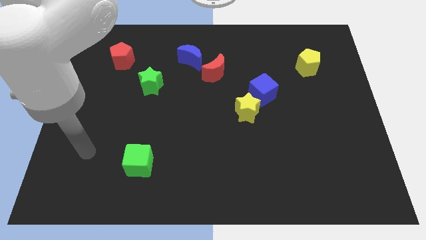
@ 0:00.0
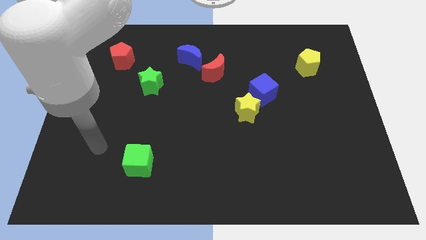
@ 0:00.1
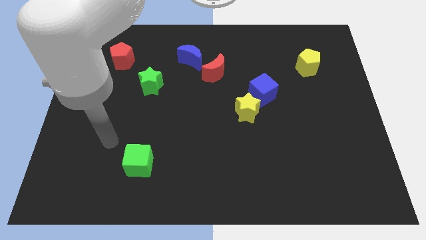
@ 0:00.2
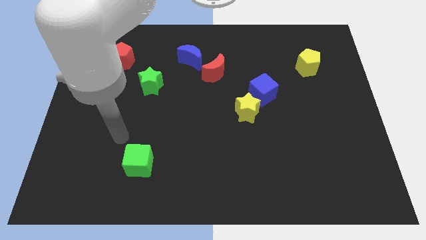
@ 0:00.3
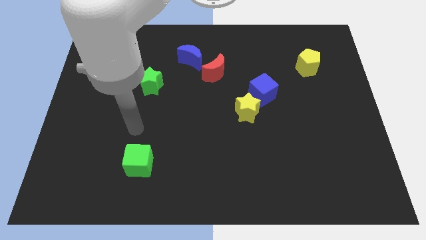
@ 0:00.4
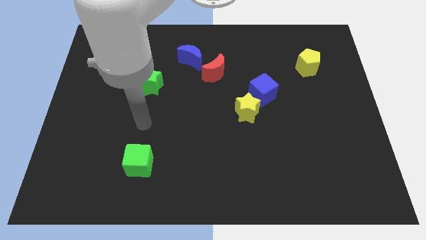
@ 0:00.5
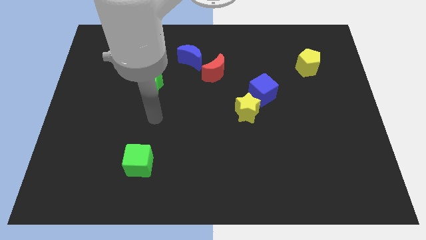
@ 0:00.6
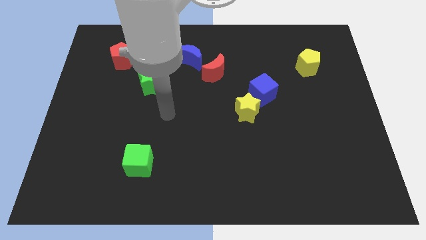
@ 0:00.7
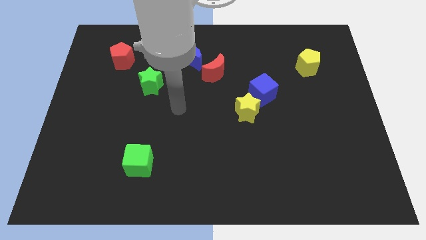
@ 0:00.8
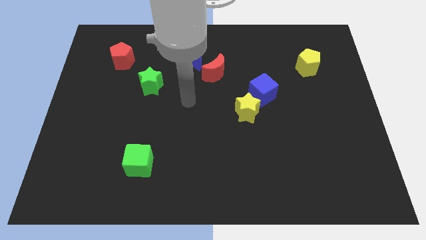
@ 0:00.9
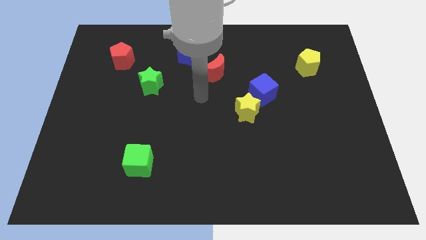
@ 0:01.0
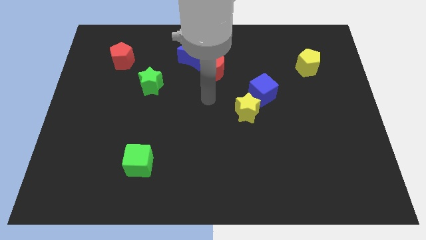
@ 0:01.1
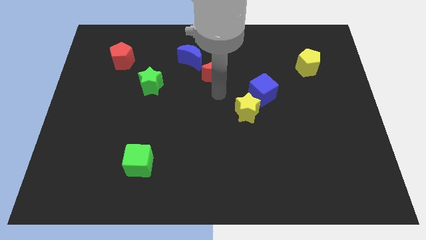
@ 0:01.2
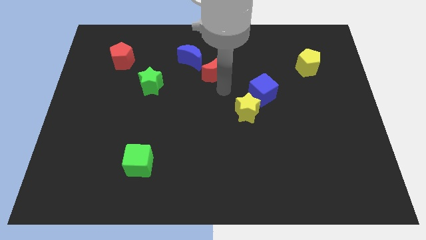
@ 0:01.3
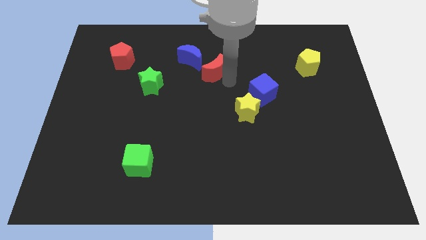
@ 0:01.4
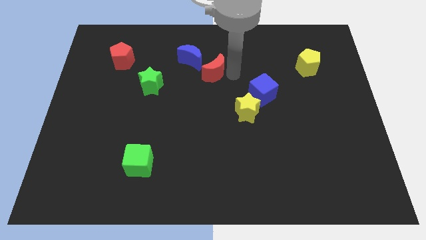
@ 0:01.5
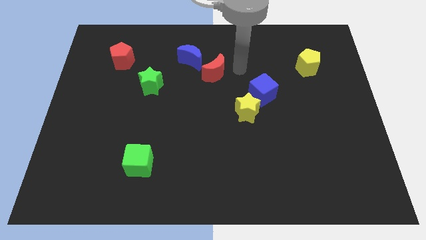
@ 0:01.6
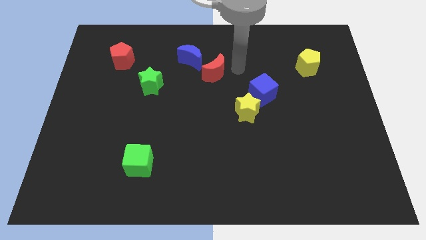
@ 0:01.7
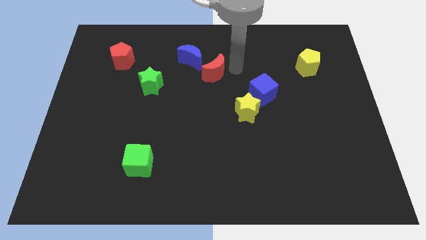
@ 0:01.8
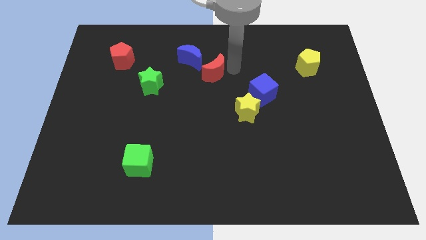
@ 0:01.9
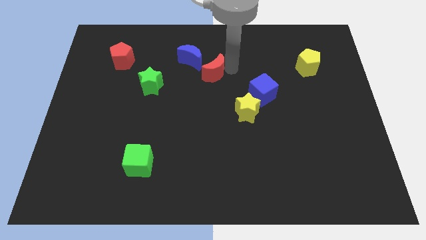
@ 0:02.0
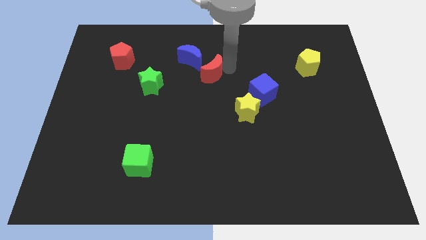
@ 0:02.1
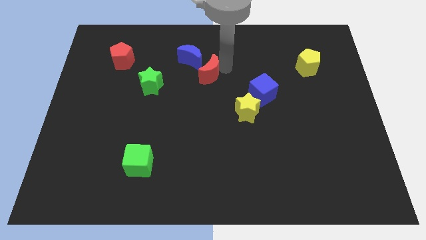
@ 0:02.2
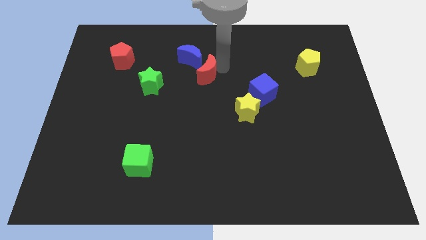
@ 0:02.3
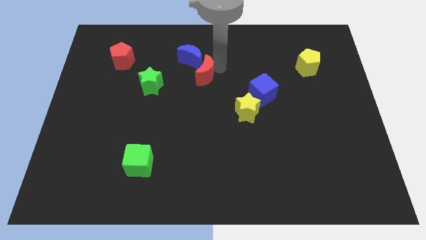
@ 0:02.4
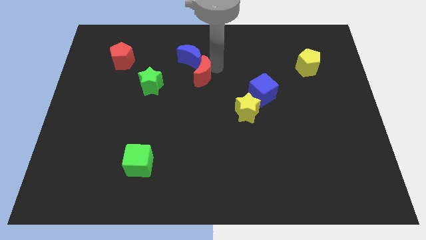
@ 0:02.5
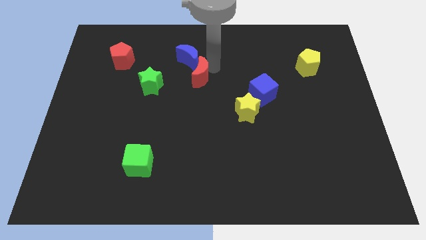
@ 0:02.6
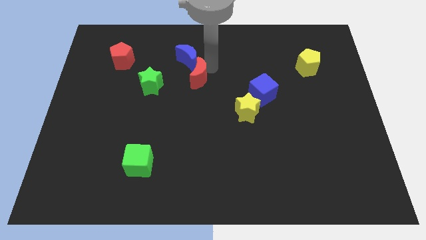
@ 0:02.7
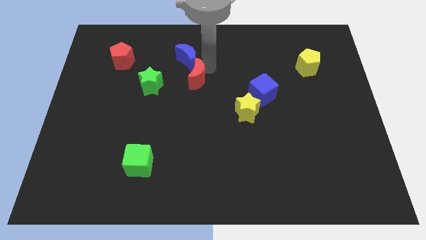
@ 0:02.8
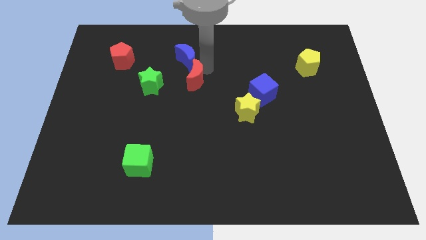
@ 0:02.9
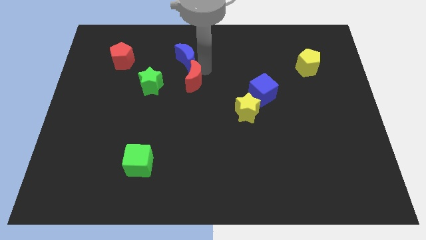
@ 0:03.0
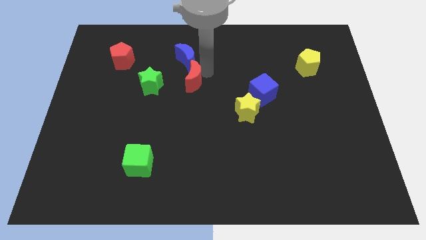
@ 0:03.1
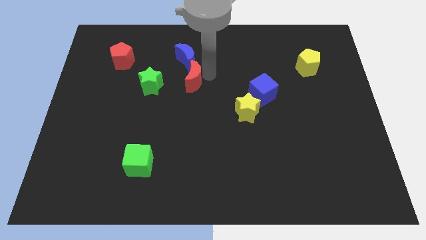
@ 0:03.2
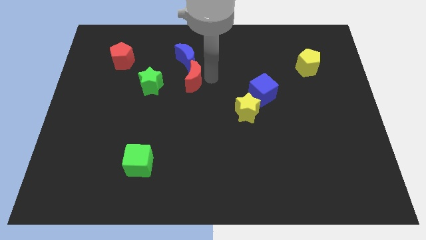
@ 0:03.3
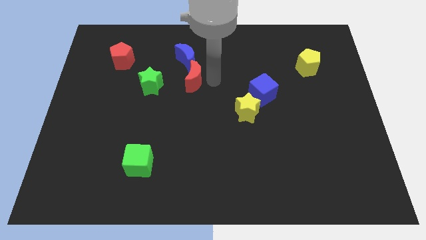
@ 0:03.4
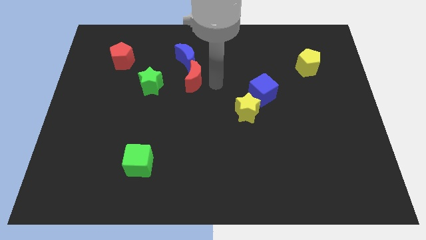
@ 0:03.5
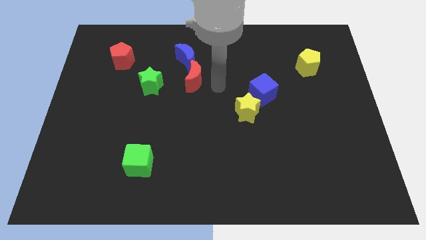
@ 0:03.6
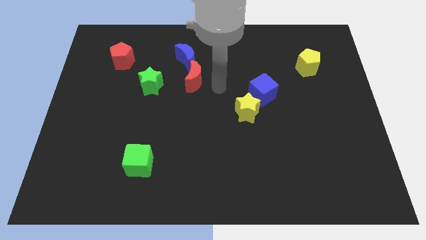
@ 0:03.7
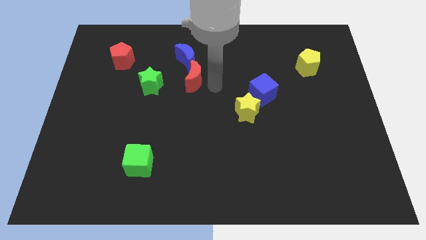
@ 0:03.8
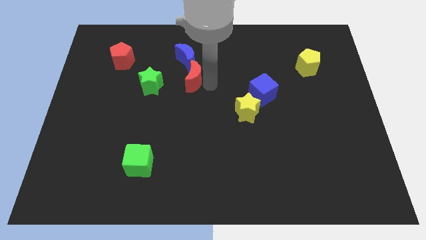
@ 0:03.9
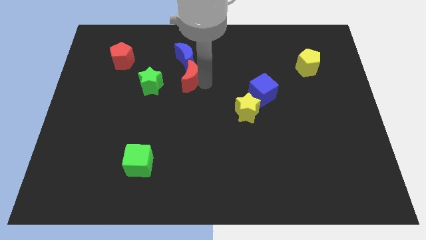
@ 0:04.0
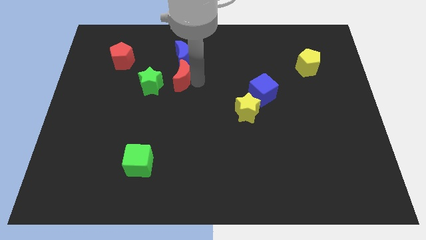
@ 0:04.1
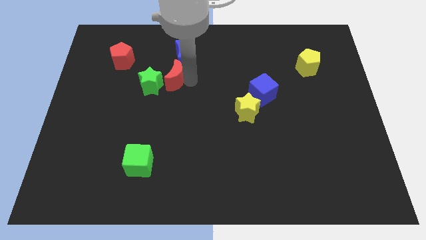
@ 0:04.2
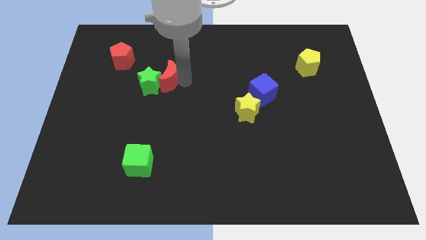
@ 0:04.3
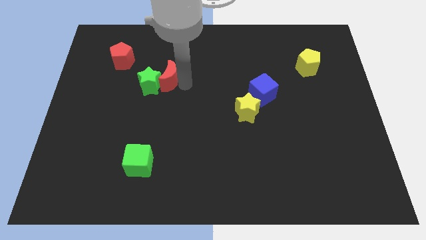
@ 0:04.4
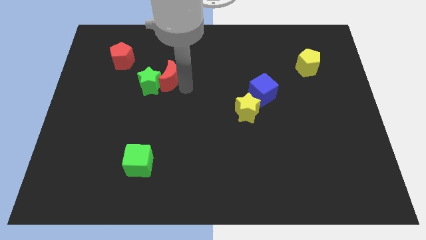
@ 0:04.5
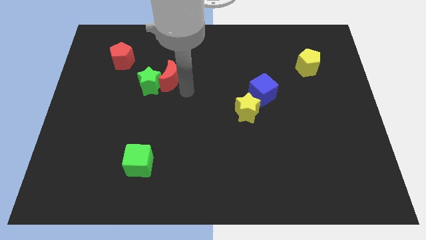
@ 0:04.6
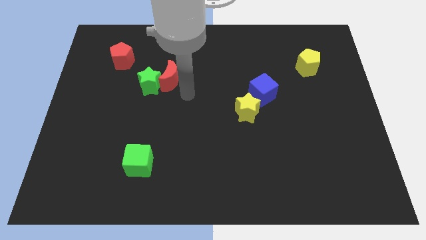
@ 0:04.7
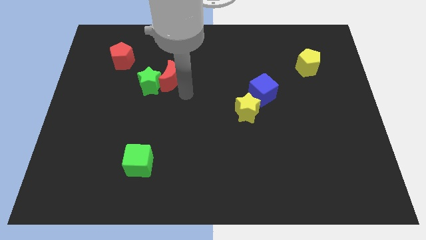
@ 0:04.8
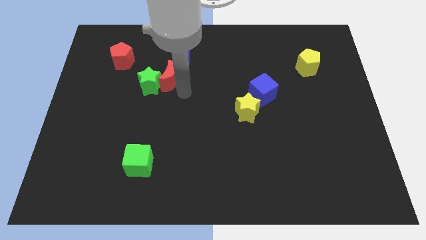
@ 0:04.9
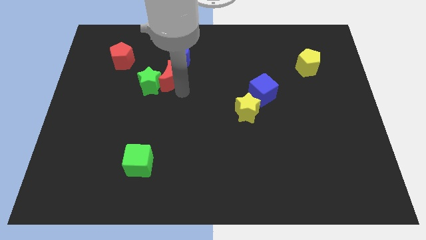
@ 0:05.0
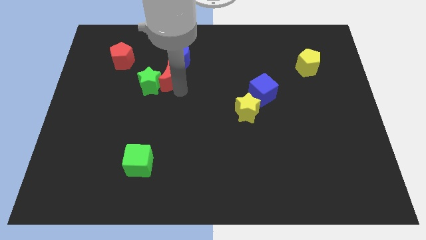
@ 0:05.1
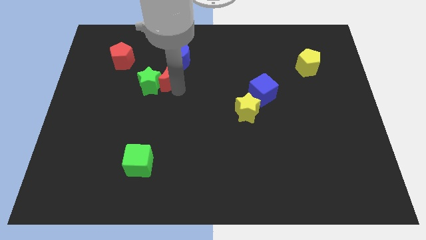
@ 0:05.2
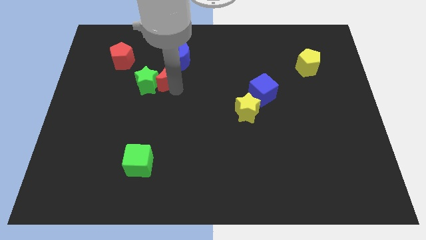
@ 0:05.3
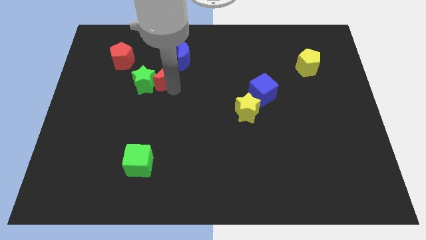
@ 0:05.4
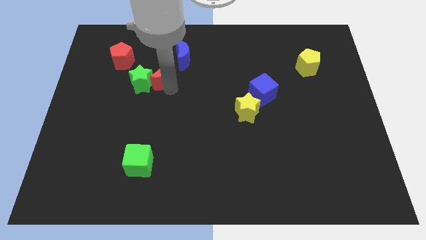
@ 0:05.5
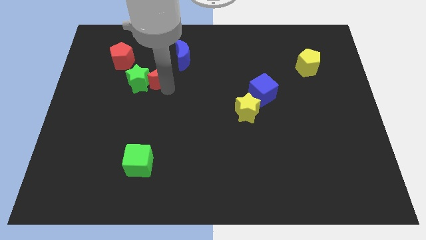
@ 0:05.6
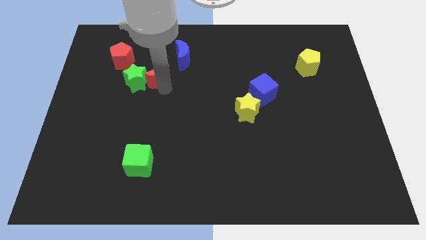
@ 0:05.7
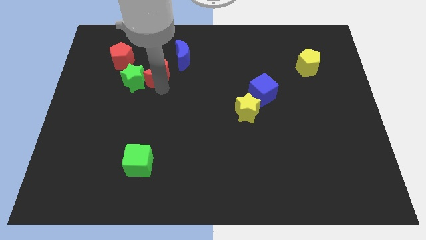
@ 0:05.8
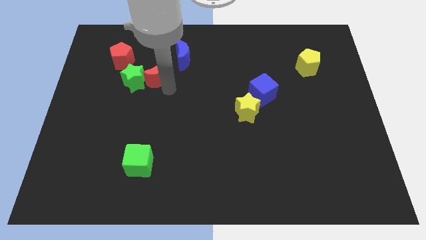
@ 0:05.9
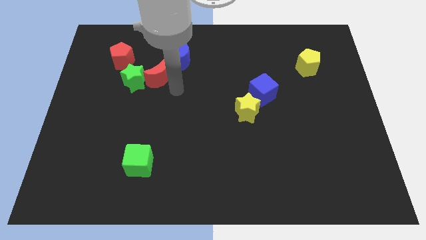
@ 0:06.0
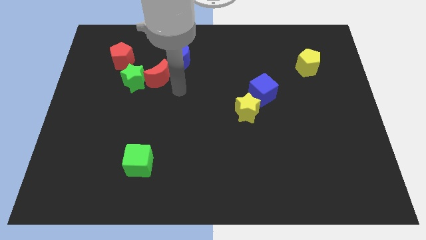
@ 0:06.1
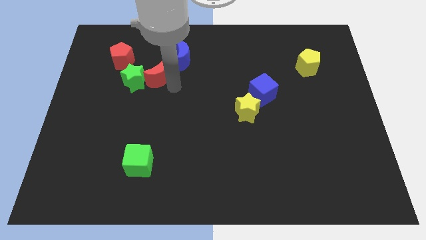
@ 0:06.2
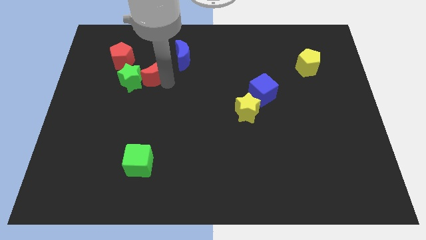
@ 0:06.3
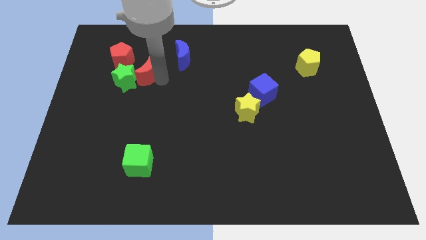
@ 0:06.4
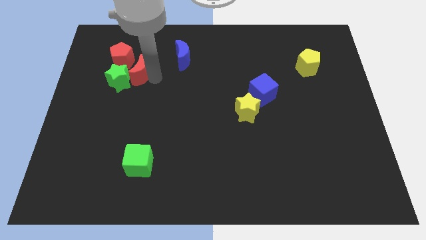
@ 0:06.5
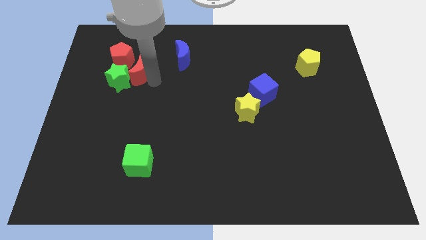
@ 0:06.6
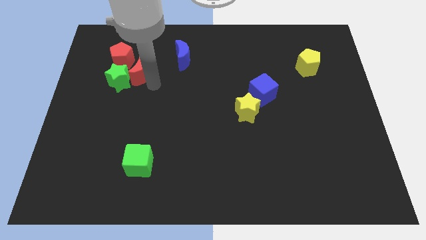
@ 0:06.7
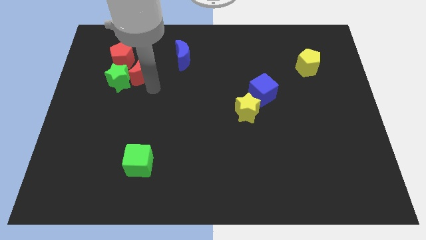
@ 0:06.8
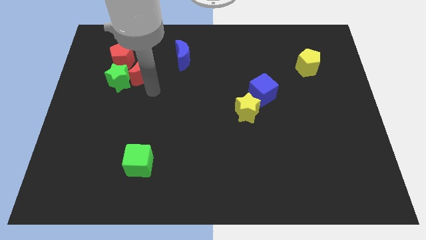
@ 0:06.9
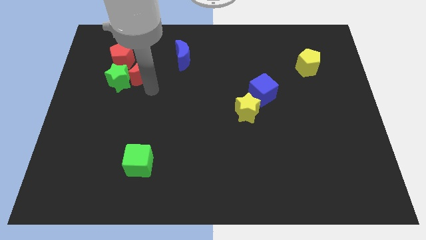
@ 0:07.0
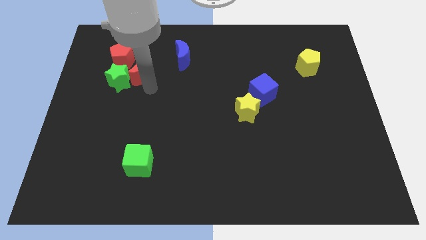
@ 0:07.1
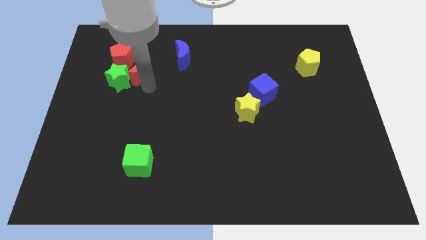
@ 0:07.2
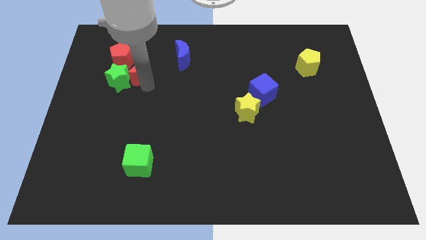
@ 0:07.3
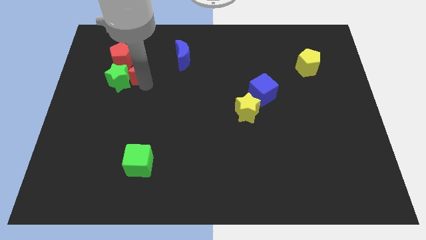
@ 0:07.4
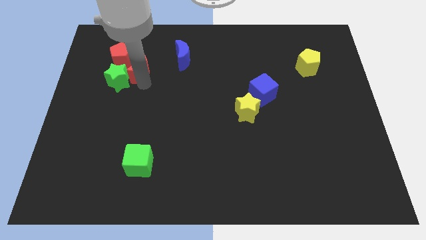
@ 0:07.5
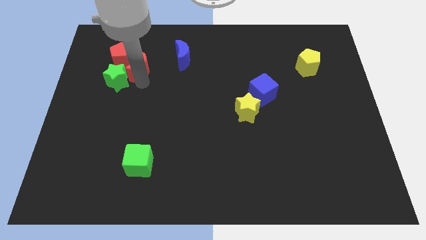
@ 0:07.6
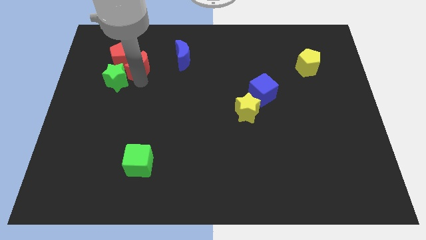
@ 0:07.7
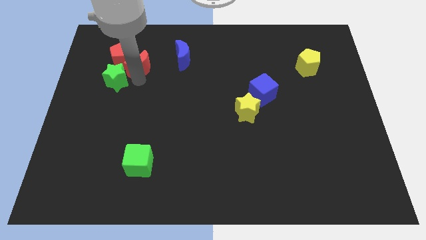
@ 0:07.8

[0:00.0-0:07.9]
slide the red moon next to the red pentagon
